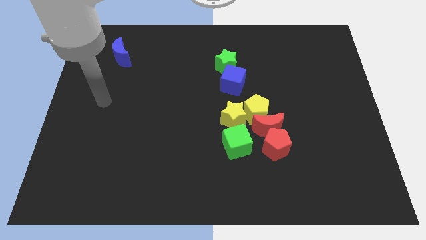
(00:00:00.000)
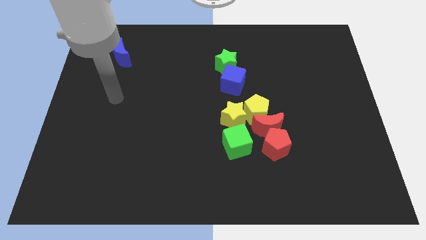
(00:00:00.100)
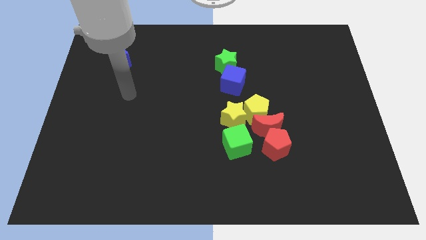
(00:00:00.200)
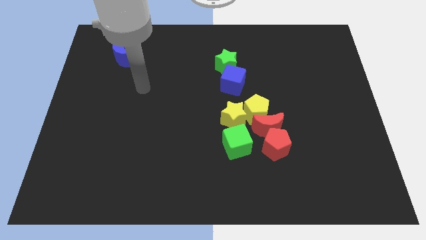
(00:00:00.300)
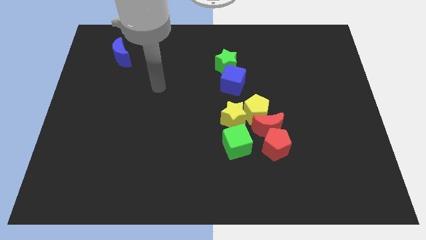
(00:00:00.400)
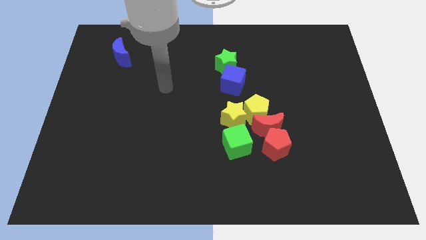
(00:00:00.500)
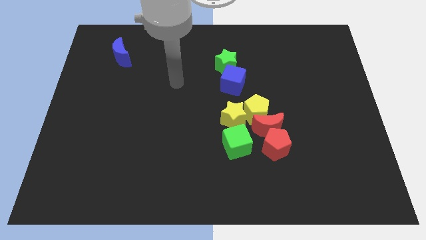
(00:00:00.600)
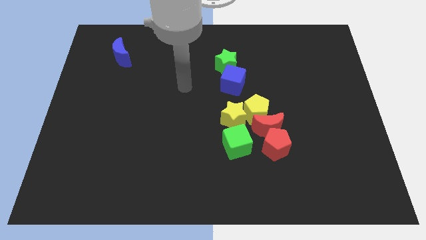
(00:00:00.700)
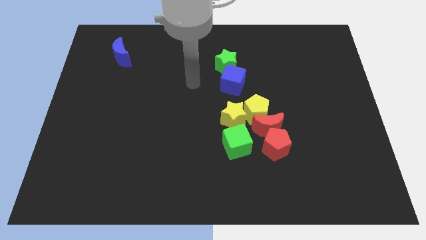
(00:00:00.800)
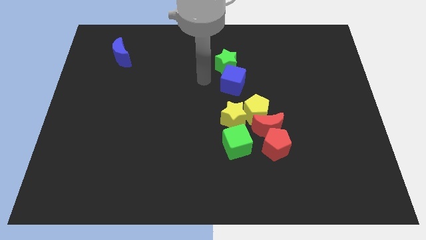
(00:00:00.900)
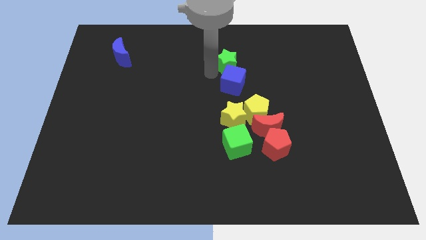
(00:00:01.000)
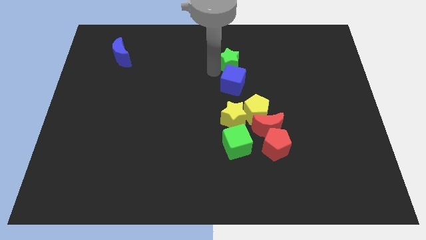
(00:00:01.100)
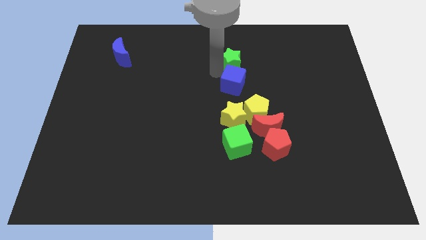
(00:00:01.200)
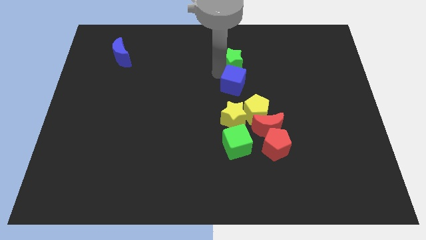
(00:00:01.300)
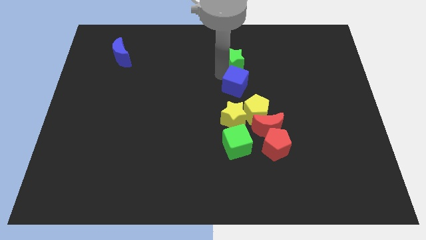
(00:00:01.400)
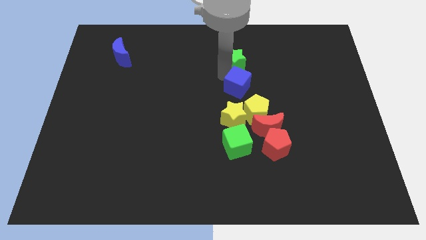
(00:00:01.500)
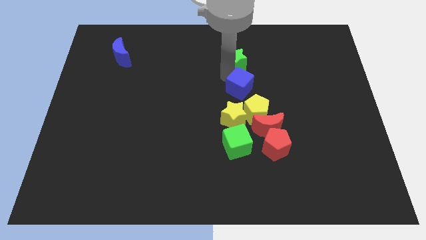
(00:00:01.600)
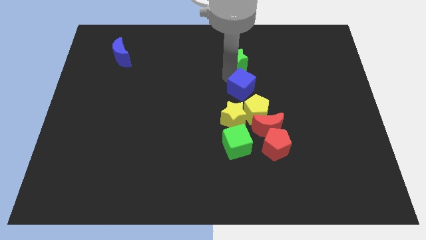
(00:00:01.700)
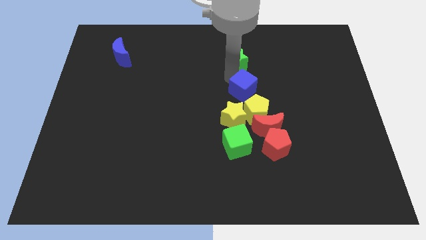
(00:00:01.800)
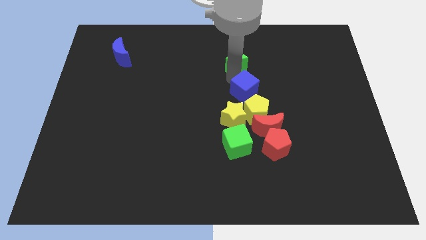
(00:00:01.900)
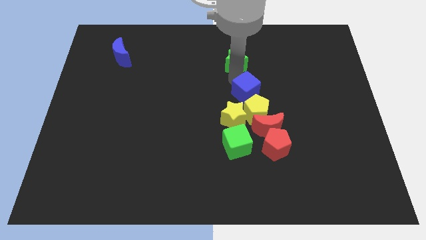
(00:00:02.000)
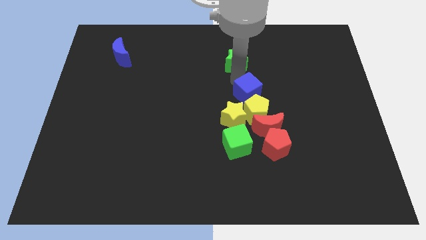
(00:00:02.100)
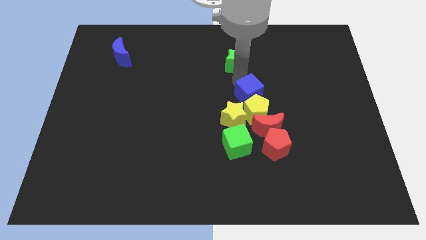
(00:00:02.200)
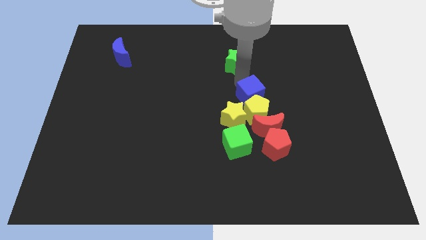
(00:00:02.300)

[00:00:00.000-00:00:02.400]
pull the blue cube apart from the green star

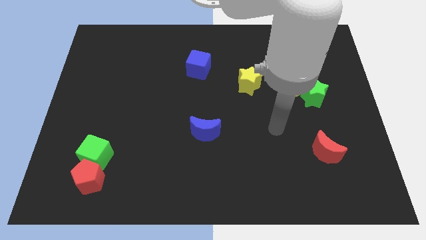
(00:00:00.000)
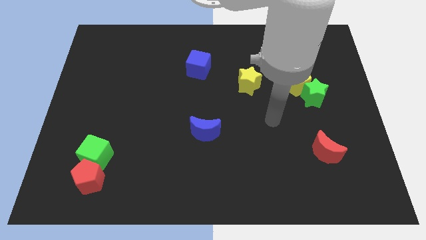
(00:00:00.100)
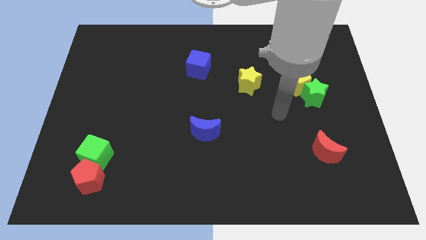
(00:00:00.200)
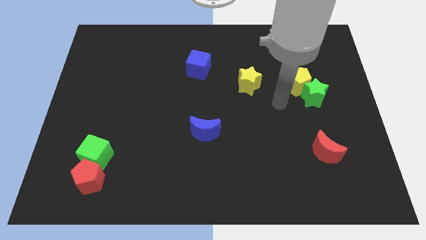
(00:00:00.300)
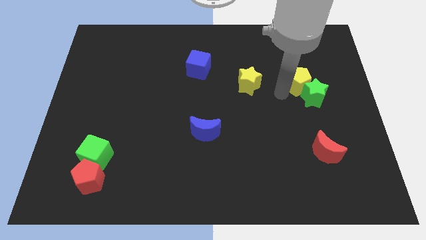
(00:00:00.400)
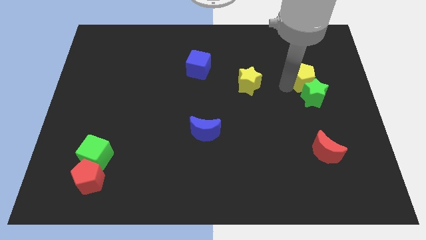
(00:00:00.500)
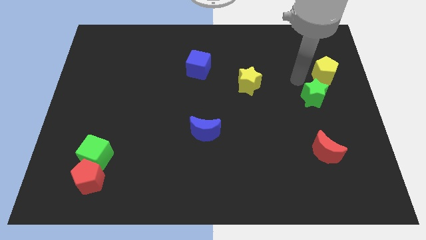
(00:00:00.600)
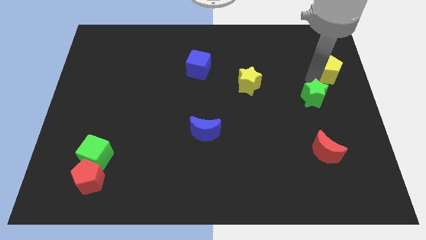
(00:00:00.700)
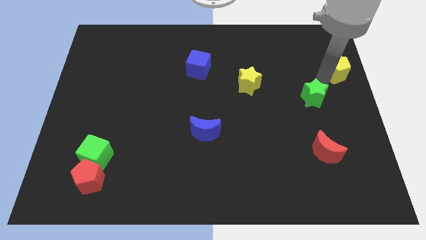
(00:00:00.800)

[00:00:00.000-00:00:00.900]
pull the green star apart from the yellow pentagon

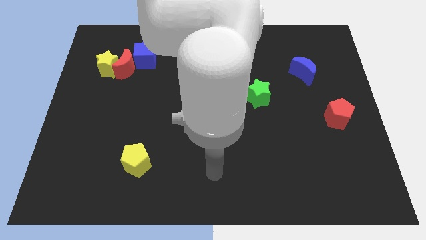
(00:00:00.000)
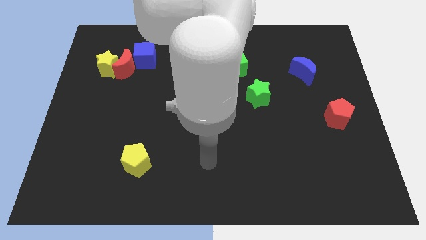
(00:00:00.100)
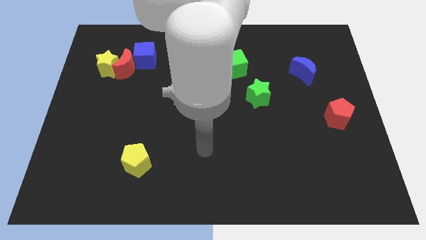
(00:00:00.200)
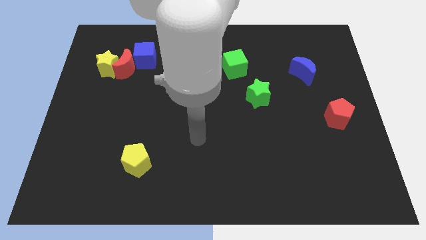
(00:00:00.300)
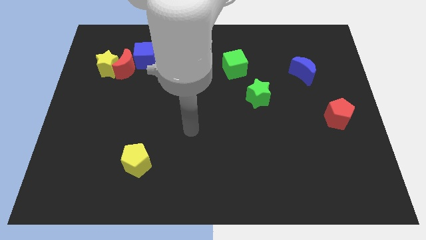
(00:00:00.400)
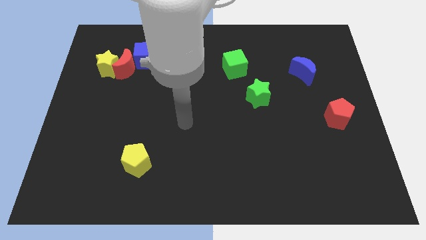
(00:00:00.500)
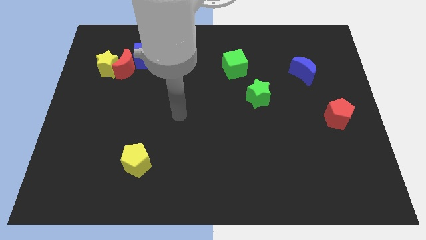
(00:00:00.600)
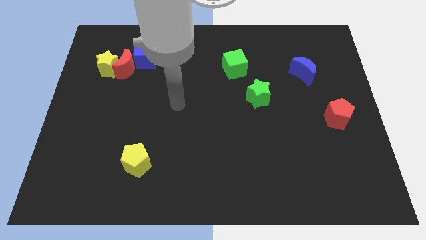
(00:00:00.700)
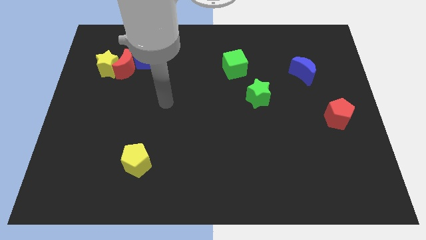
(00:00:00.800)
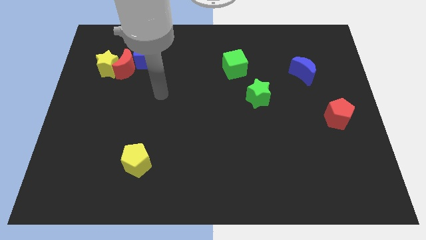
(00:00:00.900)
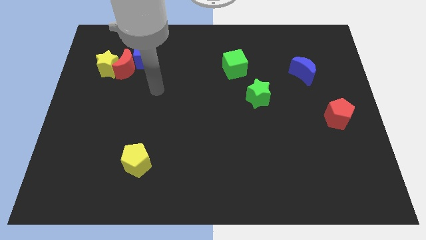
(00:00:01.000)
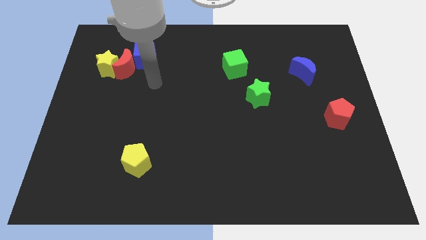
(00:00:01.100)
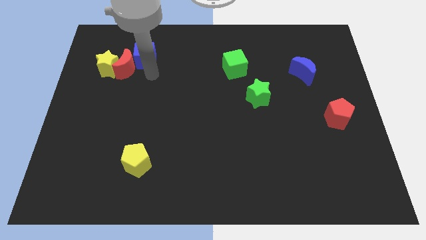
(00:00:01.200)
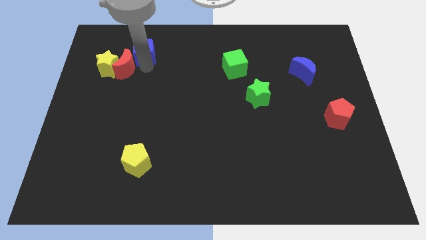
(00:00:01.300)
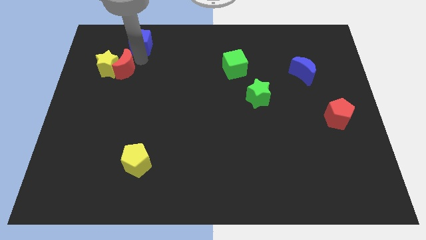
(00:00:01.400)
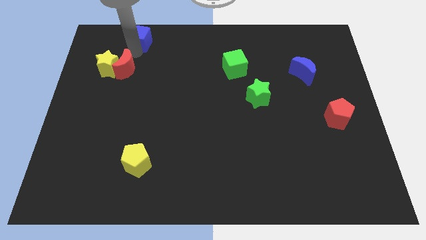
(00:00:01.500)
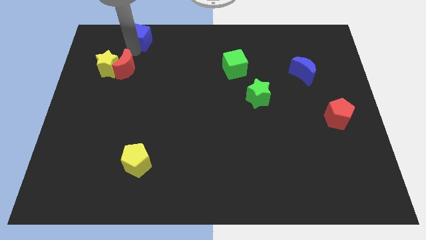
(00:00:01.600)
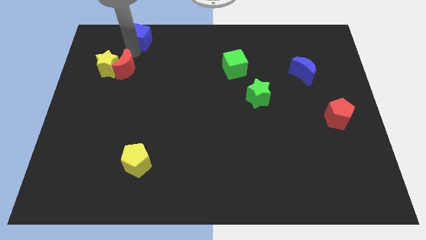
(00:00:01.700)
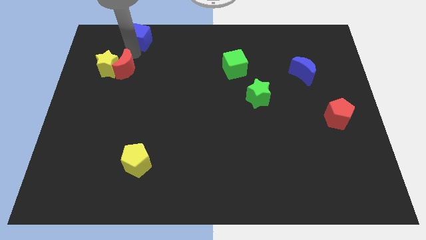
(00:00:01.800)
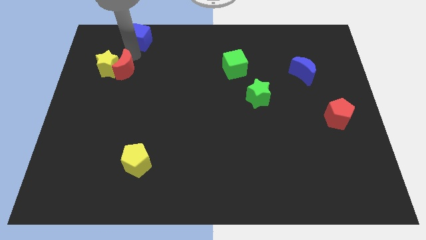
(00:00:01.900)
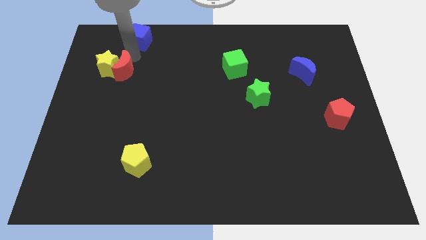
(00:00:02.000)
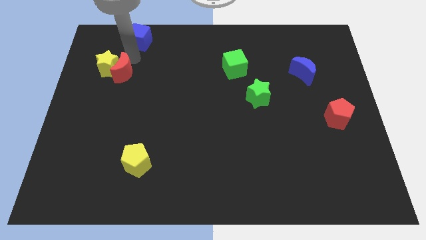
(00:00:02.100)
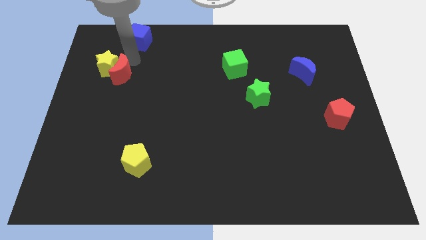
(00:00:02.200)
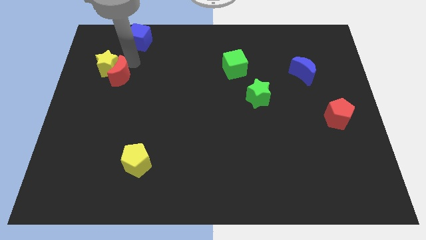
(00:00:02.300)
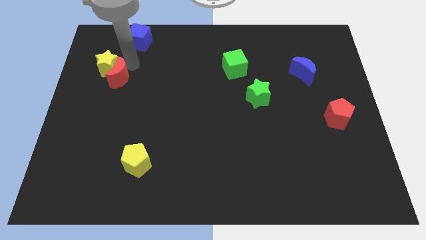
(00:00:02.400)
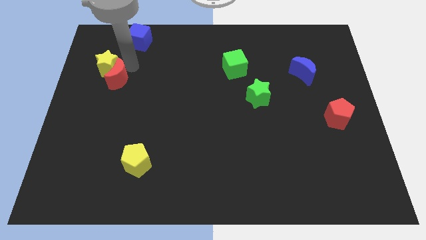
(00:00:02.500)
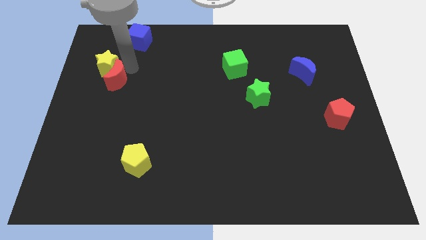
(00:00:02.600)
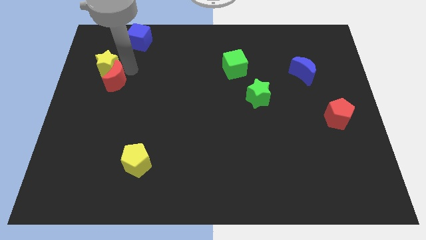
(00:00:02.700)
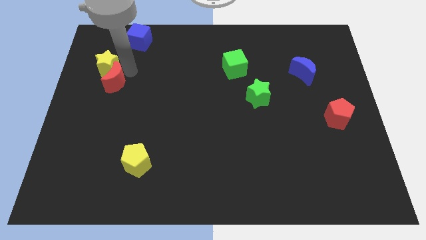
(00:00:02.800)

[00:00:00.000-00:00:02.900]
move the red moon away from the yellow star and blue cube

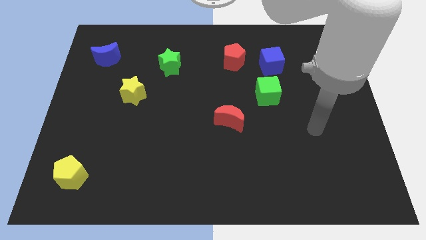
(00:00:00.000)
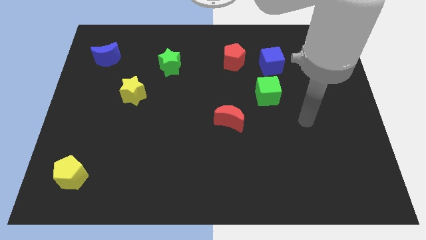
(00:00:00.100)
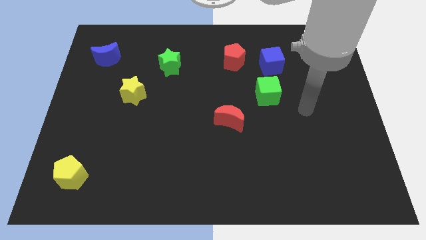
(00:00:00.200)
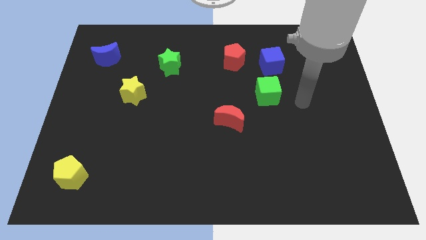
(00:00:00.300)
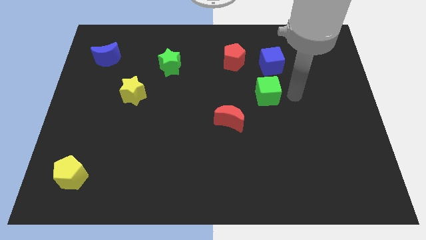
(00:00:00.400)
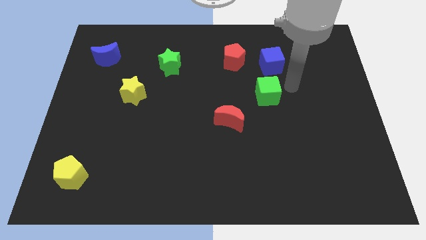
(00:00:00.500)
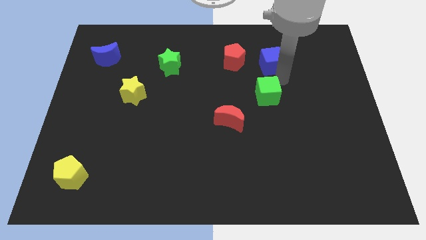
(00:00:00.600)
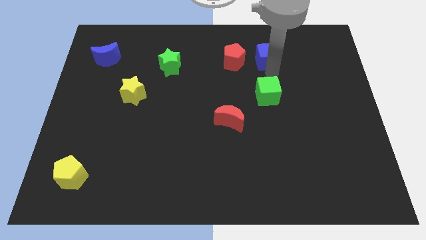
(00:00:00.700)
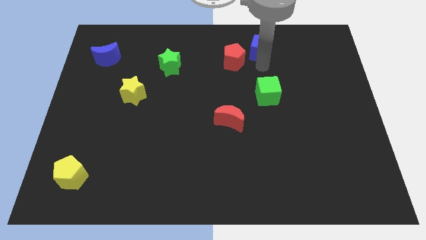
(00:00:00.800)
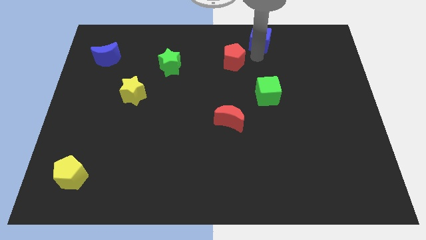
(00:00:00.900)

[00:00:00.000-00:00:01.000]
separate the red pentagon from the blue cube

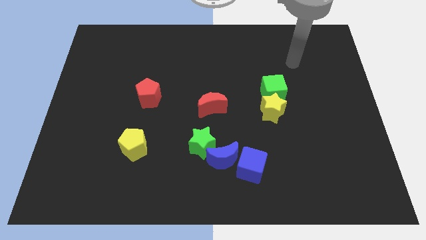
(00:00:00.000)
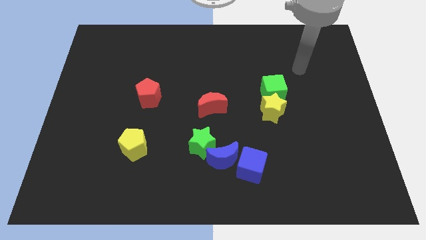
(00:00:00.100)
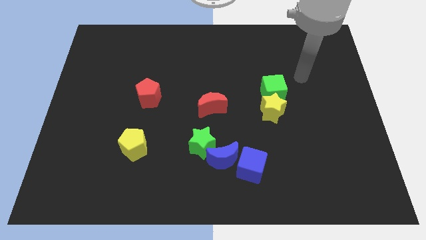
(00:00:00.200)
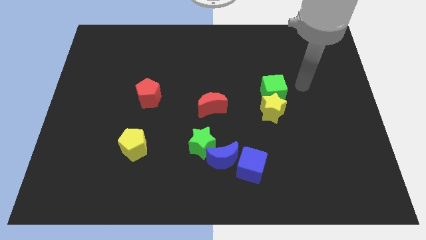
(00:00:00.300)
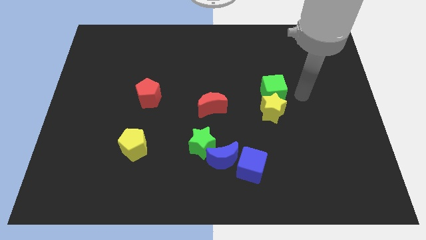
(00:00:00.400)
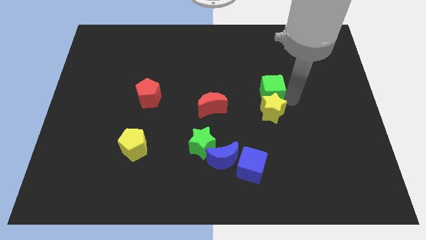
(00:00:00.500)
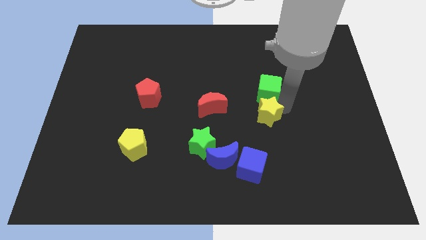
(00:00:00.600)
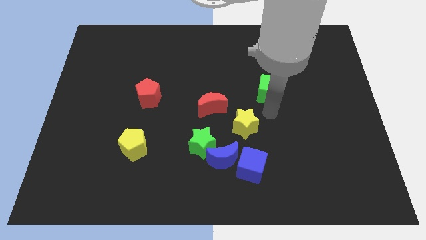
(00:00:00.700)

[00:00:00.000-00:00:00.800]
move the green cube away from the yellow star

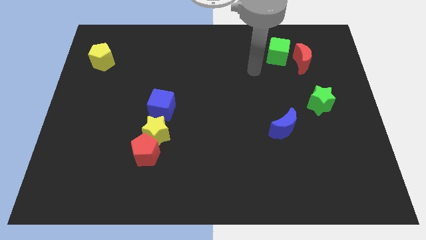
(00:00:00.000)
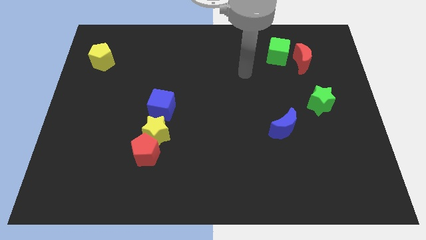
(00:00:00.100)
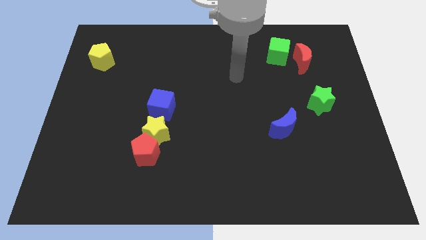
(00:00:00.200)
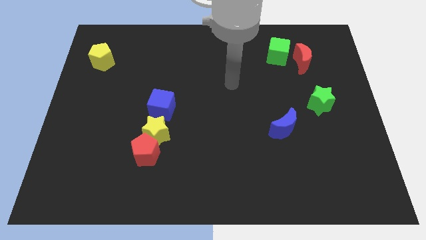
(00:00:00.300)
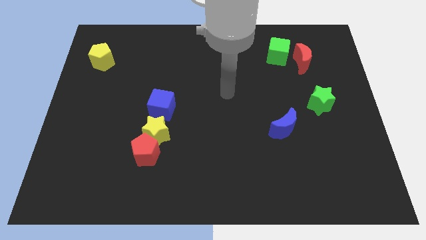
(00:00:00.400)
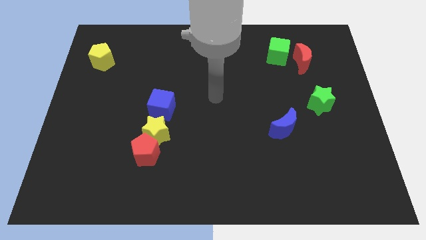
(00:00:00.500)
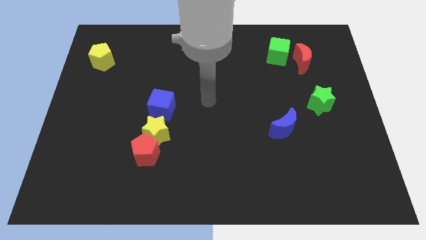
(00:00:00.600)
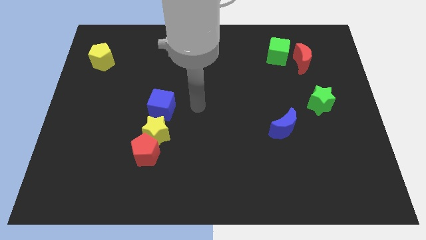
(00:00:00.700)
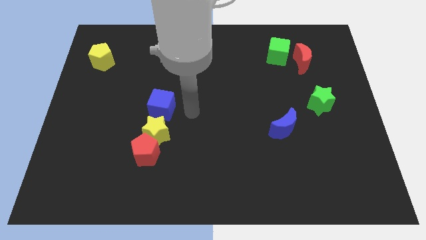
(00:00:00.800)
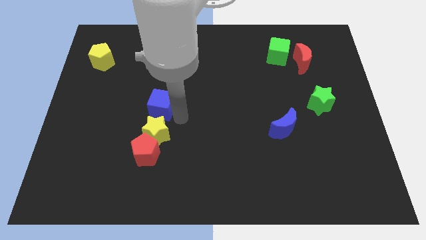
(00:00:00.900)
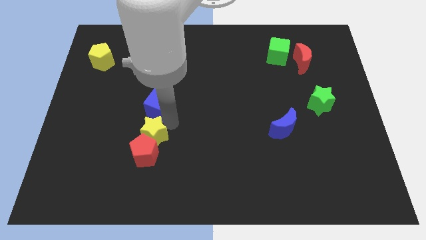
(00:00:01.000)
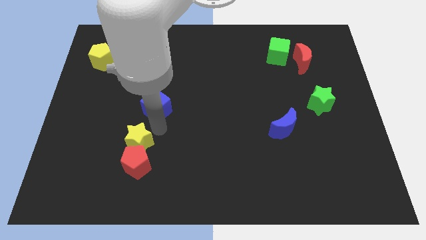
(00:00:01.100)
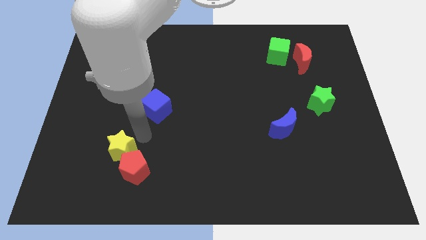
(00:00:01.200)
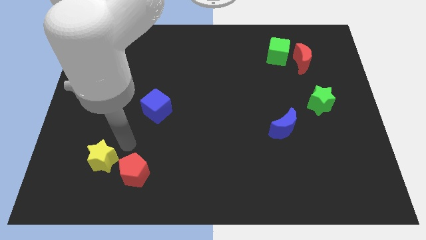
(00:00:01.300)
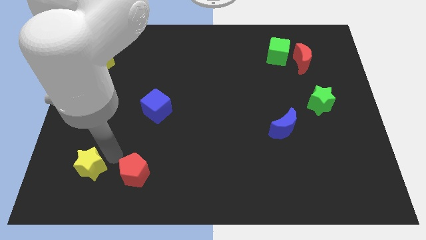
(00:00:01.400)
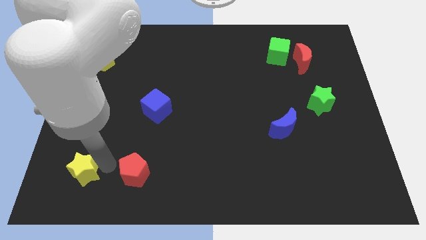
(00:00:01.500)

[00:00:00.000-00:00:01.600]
separate the red pentagon from the yellow star
